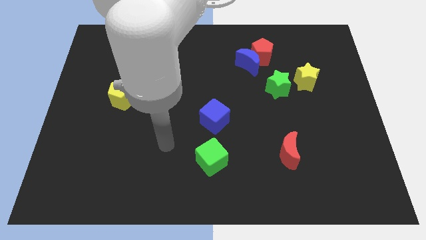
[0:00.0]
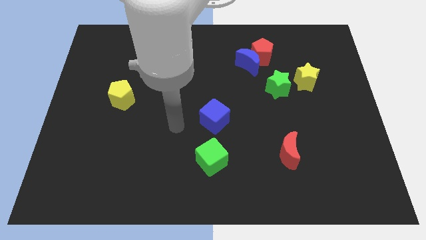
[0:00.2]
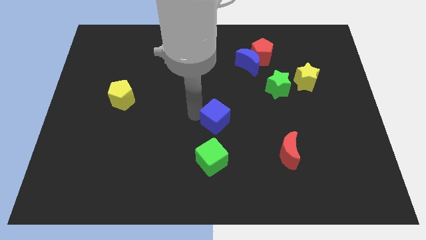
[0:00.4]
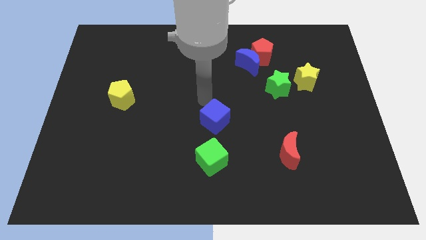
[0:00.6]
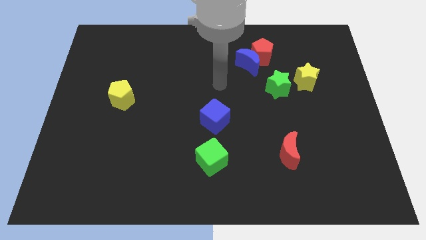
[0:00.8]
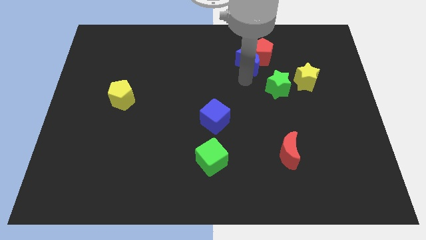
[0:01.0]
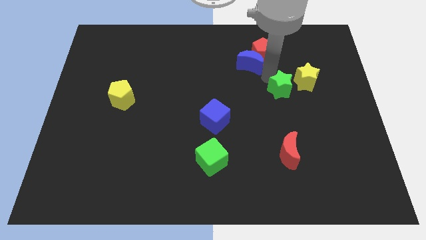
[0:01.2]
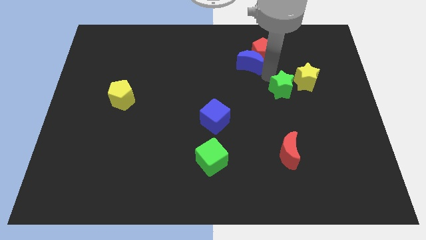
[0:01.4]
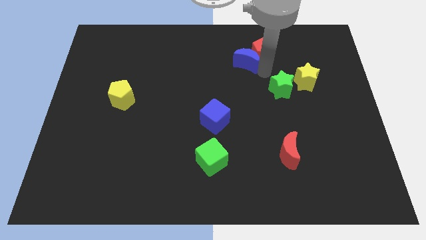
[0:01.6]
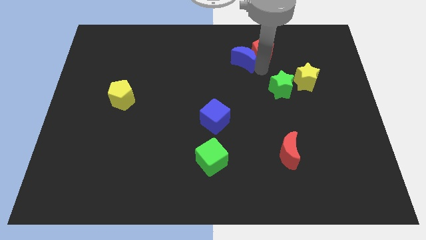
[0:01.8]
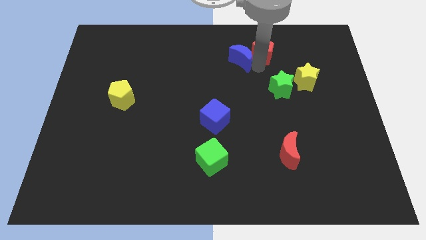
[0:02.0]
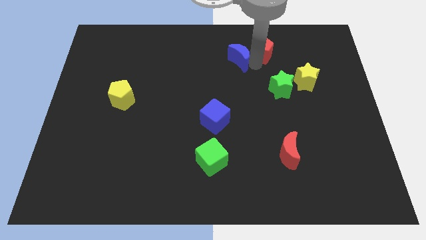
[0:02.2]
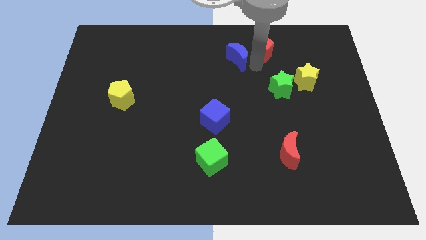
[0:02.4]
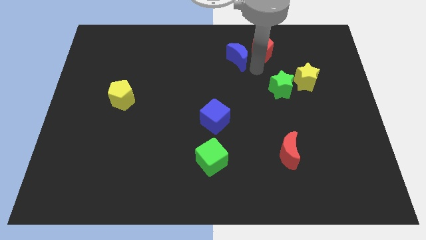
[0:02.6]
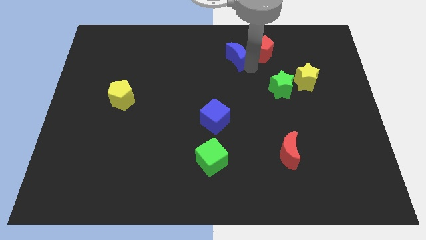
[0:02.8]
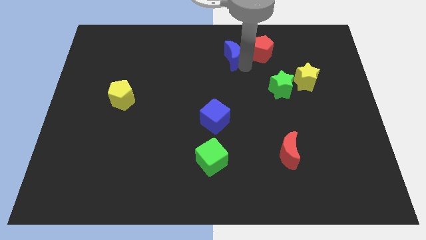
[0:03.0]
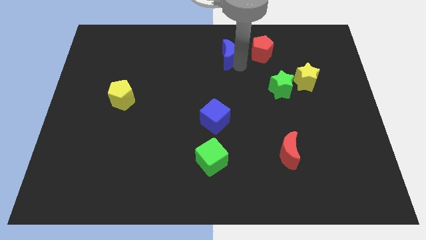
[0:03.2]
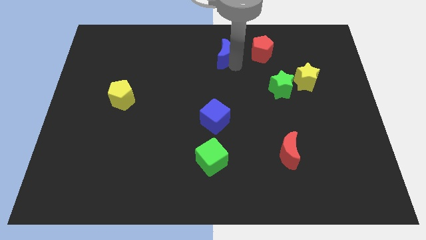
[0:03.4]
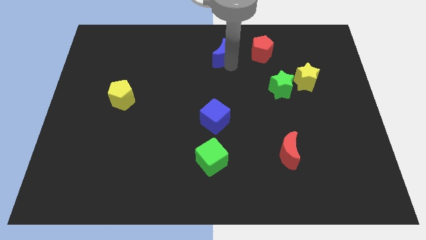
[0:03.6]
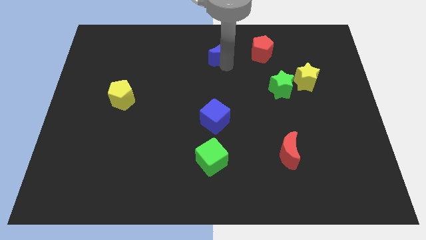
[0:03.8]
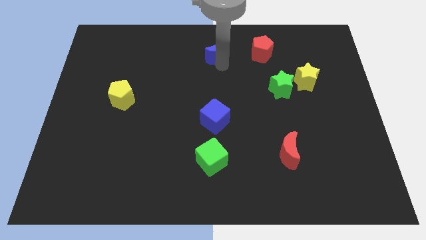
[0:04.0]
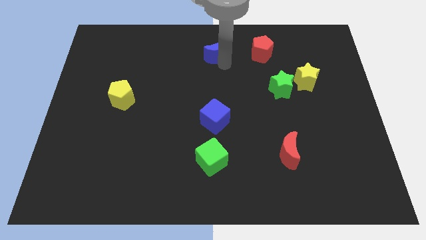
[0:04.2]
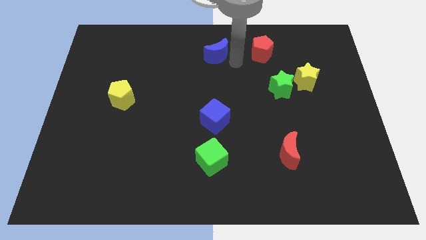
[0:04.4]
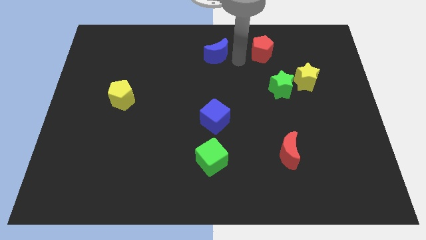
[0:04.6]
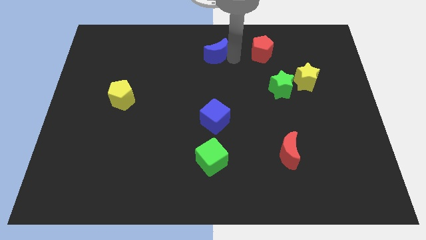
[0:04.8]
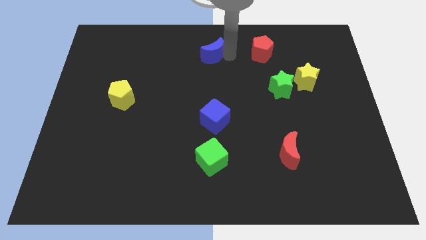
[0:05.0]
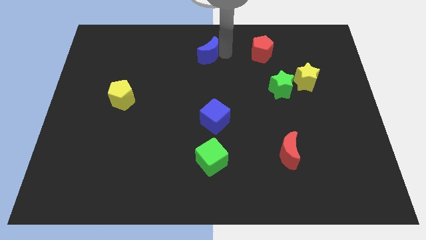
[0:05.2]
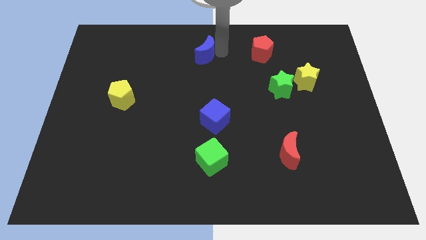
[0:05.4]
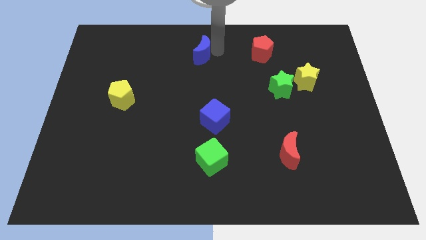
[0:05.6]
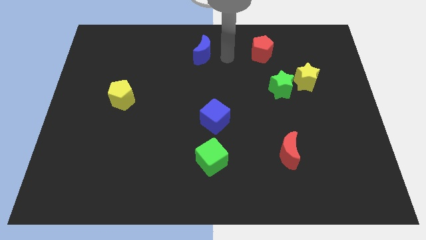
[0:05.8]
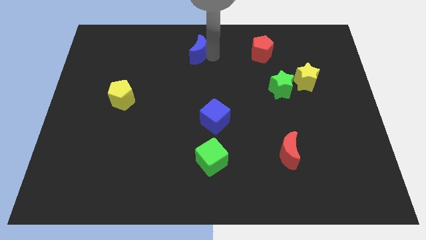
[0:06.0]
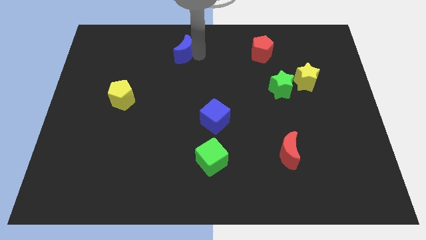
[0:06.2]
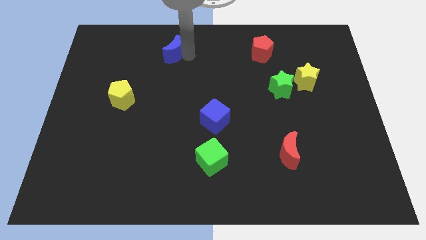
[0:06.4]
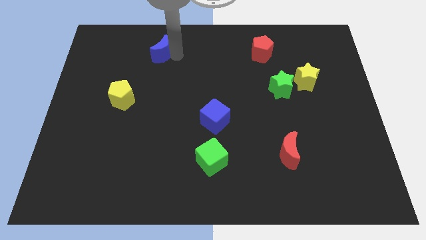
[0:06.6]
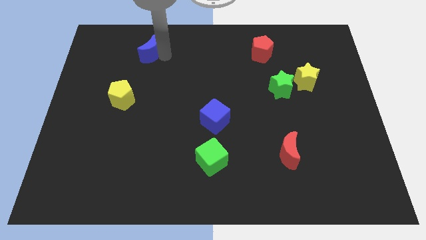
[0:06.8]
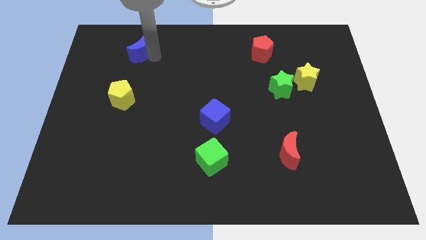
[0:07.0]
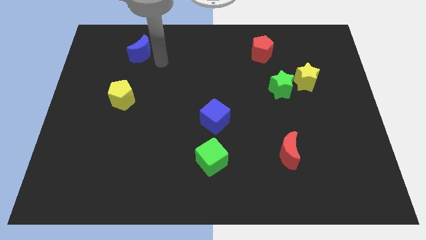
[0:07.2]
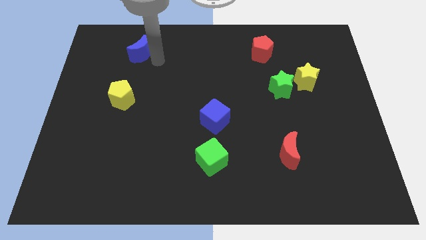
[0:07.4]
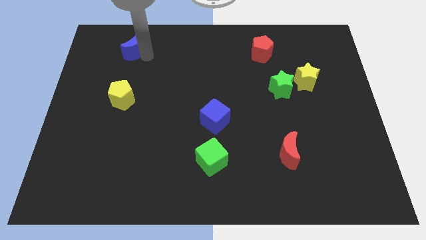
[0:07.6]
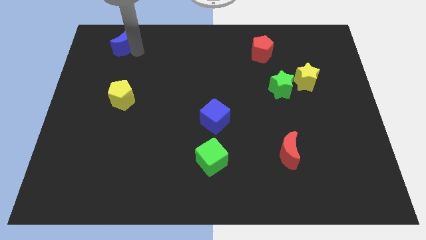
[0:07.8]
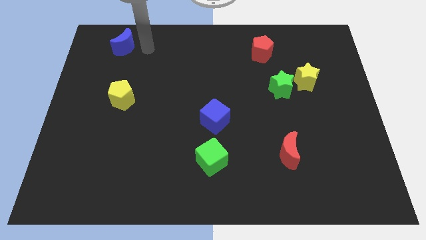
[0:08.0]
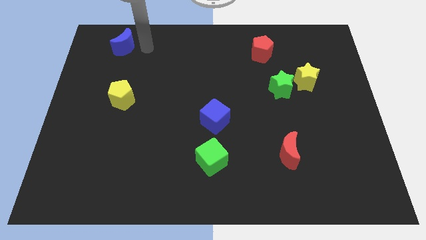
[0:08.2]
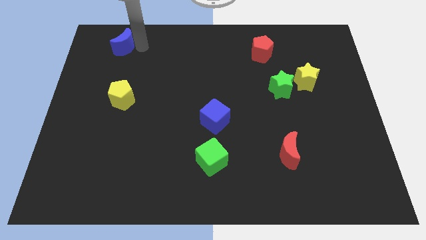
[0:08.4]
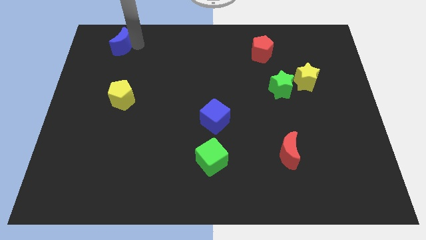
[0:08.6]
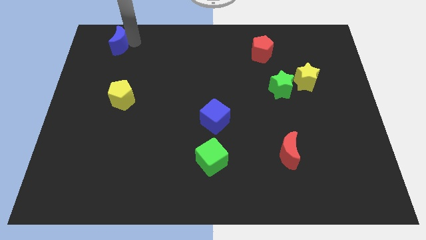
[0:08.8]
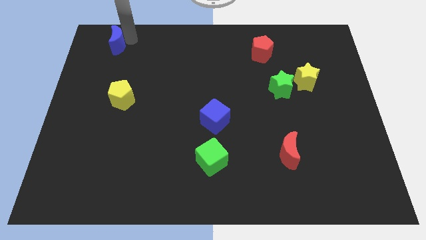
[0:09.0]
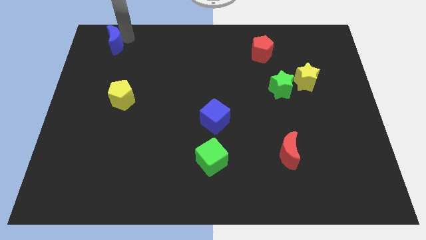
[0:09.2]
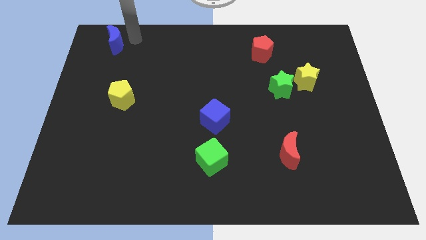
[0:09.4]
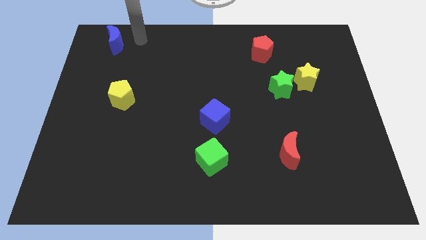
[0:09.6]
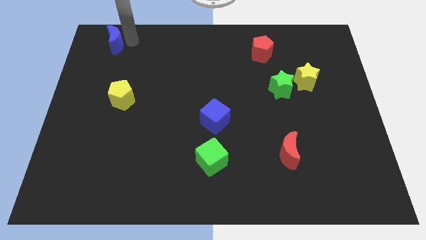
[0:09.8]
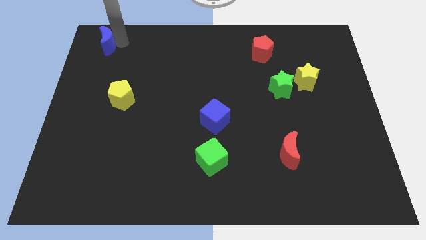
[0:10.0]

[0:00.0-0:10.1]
put the blue moon to the top left

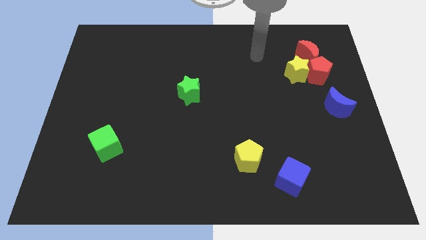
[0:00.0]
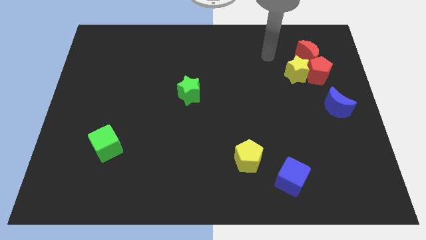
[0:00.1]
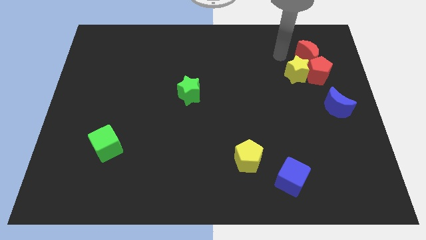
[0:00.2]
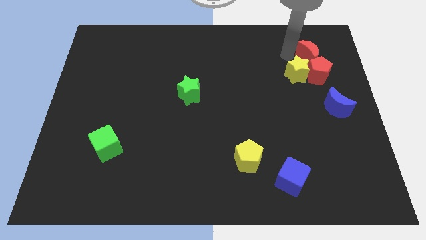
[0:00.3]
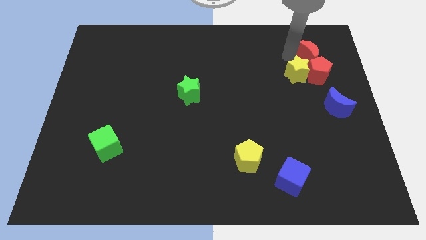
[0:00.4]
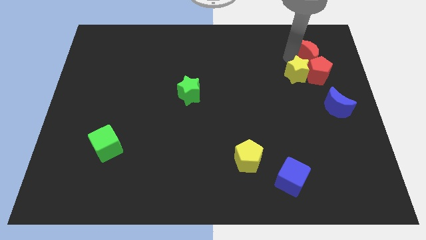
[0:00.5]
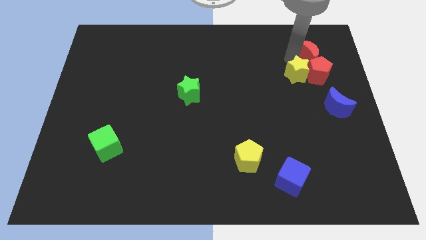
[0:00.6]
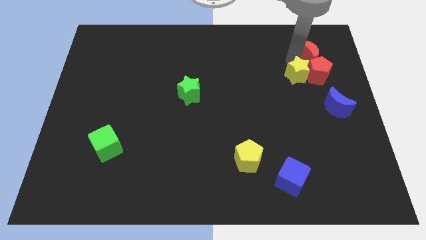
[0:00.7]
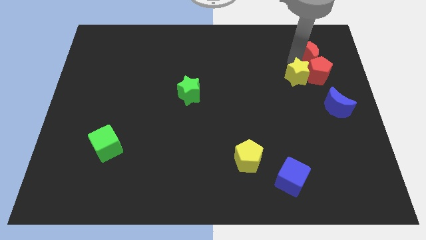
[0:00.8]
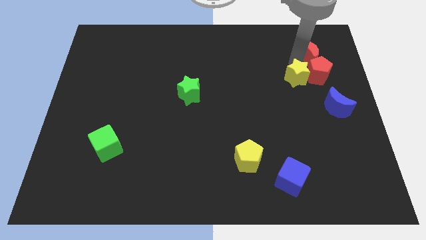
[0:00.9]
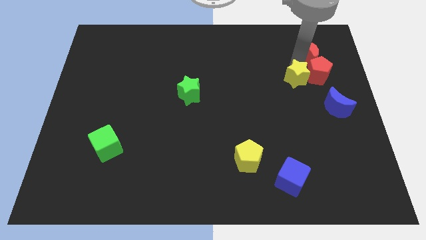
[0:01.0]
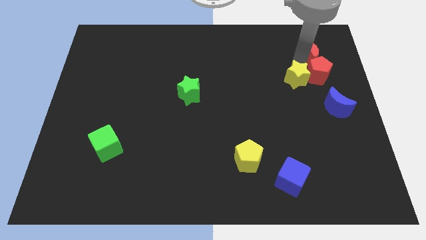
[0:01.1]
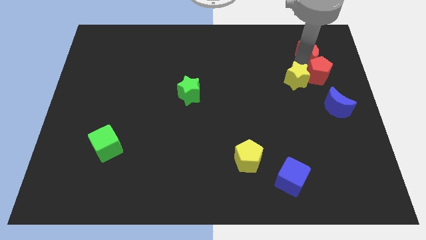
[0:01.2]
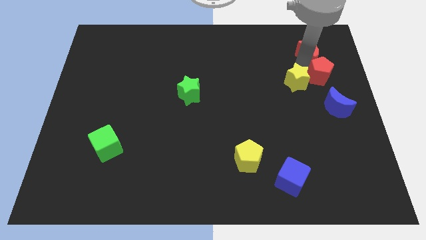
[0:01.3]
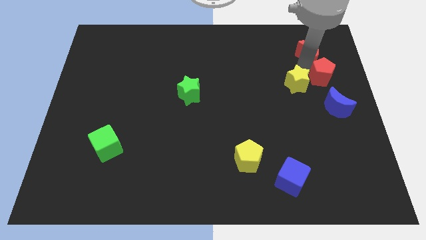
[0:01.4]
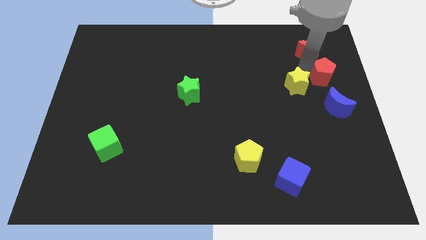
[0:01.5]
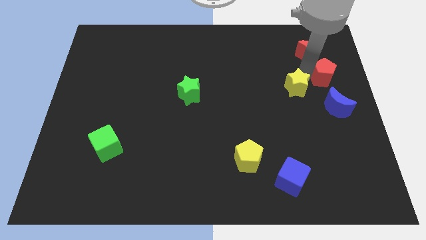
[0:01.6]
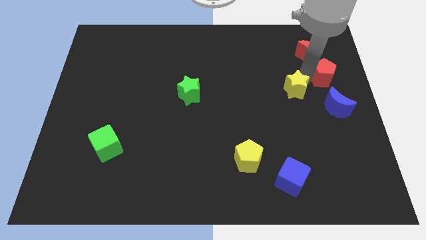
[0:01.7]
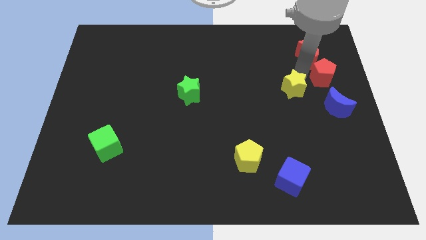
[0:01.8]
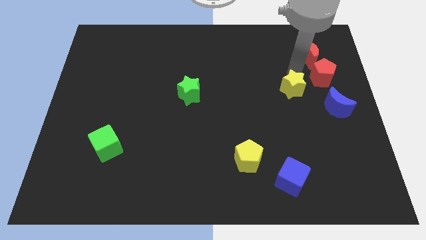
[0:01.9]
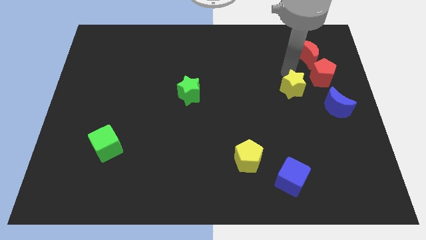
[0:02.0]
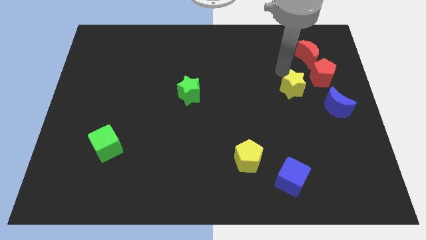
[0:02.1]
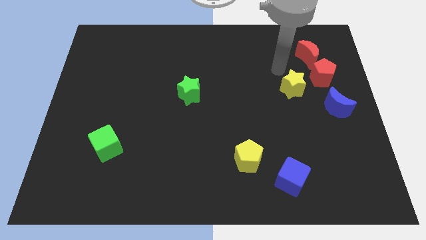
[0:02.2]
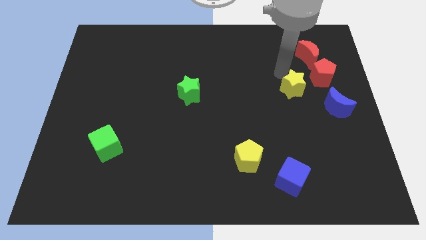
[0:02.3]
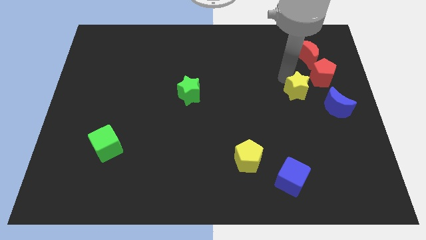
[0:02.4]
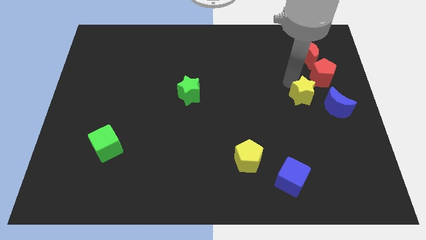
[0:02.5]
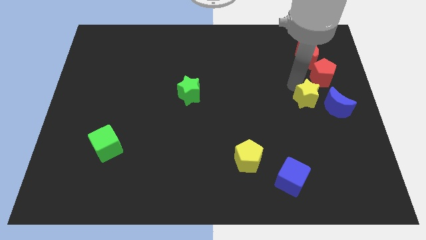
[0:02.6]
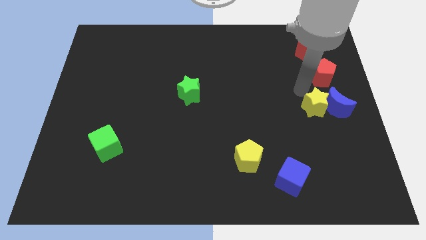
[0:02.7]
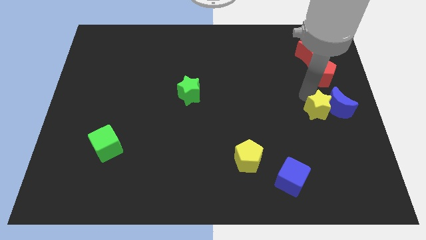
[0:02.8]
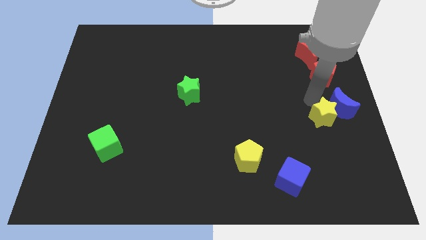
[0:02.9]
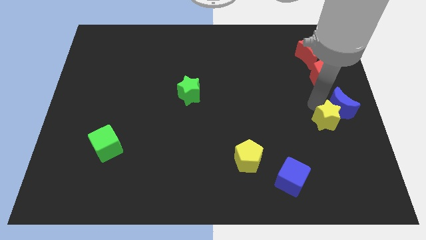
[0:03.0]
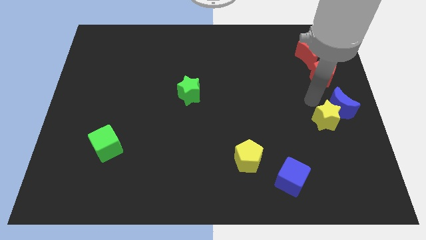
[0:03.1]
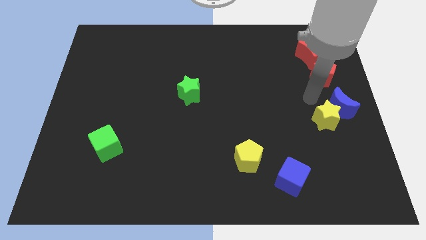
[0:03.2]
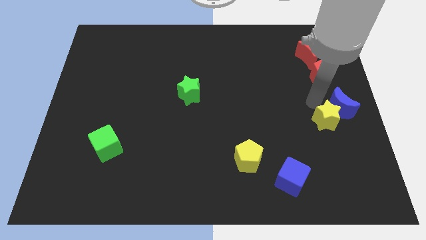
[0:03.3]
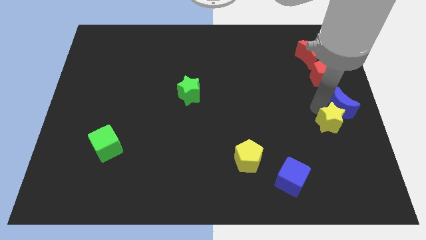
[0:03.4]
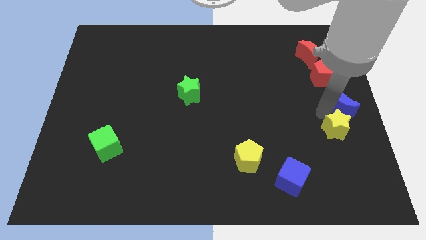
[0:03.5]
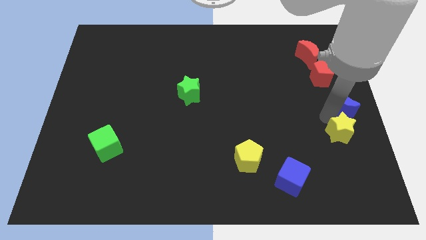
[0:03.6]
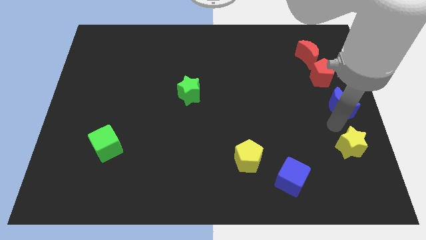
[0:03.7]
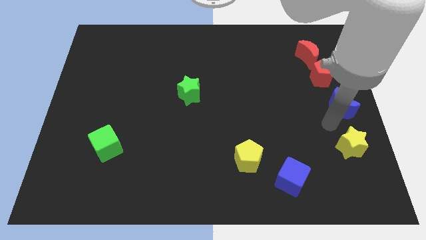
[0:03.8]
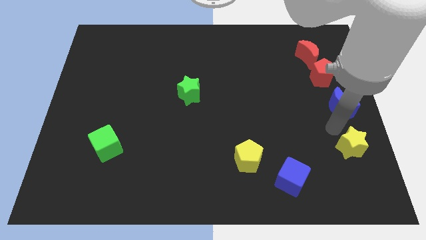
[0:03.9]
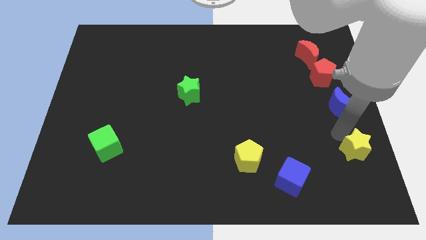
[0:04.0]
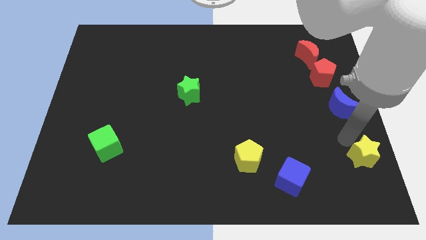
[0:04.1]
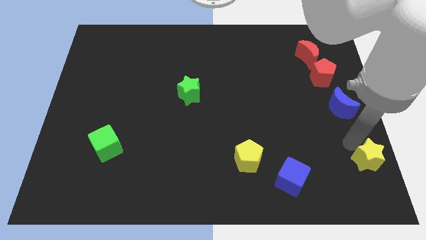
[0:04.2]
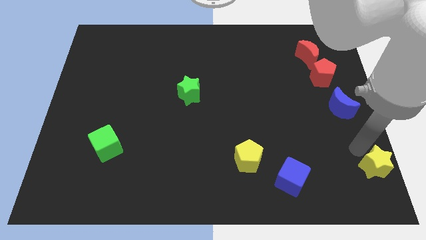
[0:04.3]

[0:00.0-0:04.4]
put the yellow star to the bottom right
